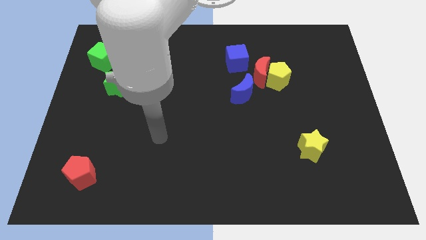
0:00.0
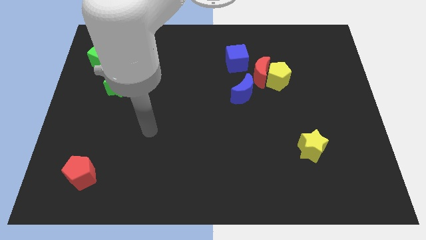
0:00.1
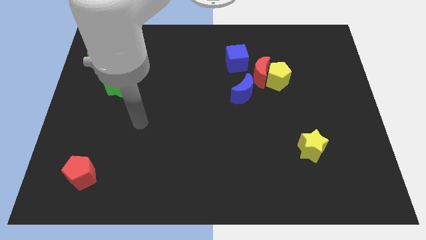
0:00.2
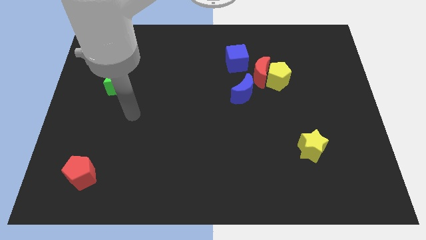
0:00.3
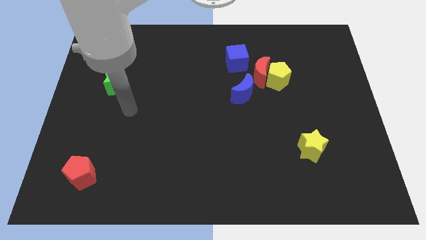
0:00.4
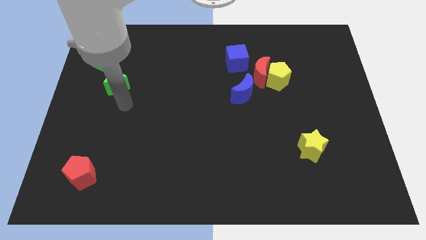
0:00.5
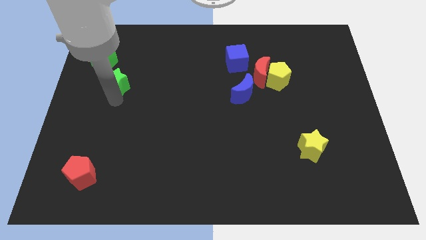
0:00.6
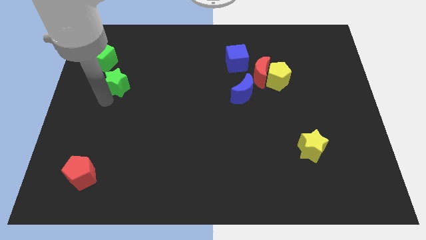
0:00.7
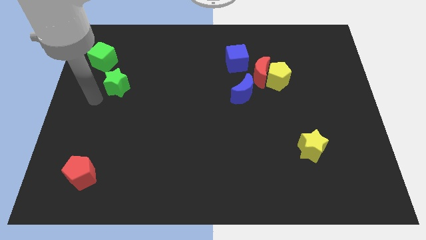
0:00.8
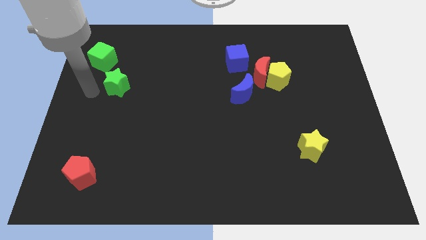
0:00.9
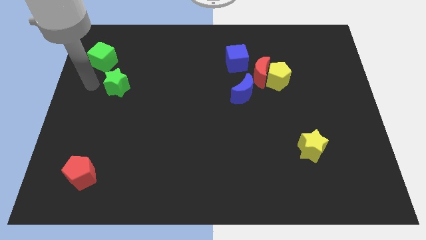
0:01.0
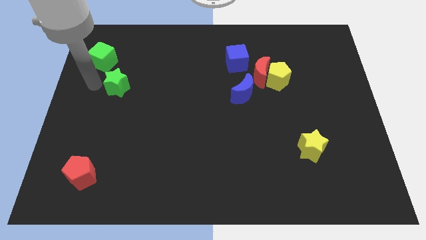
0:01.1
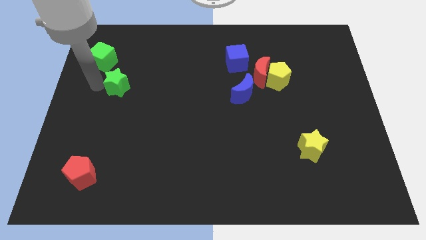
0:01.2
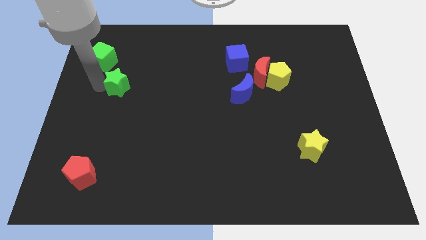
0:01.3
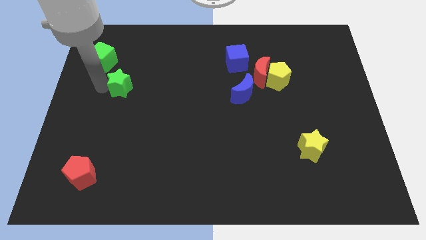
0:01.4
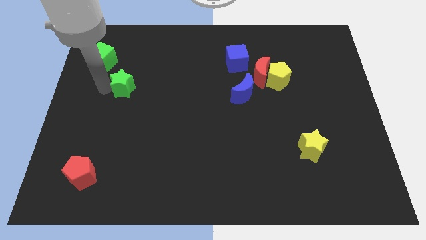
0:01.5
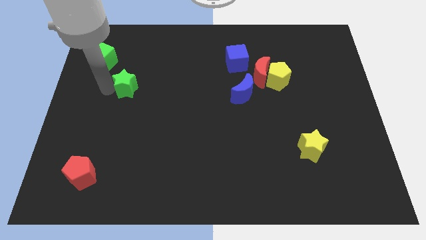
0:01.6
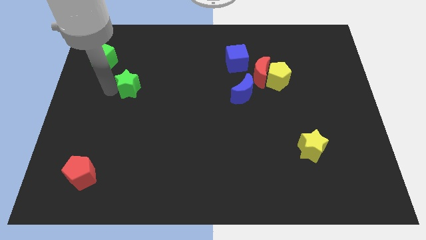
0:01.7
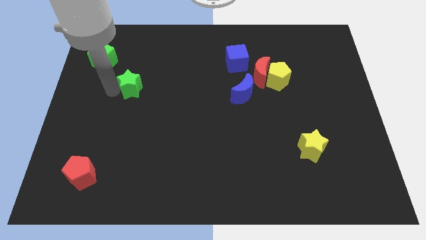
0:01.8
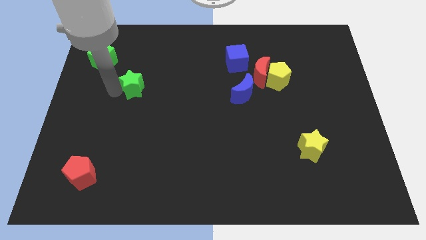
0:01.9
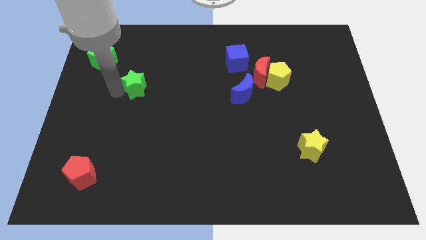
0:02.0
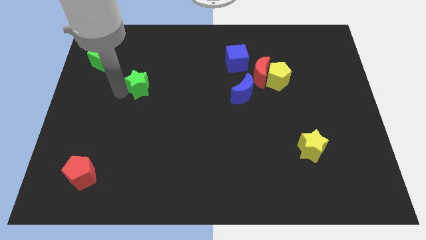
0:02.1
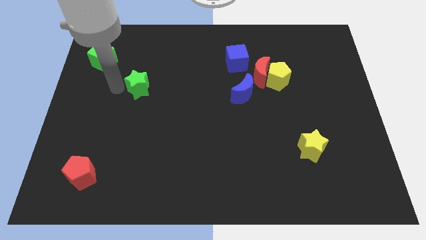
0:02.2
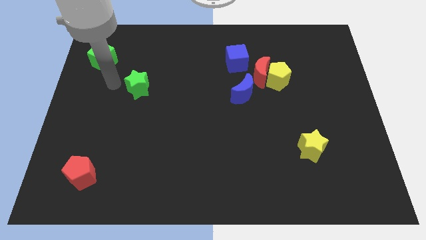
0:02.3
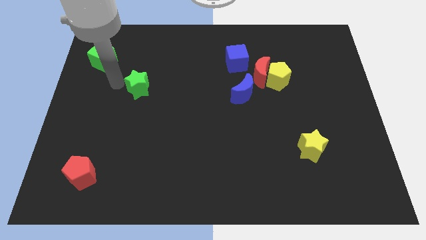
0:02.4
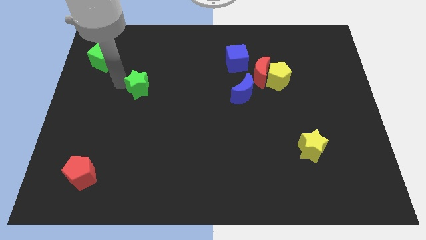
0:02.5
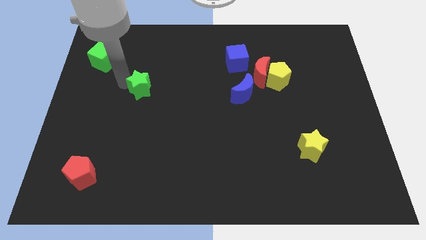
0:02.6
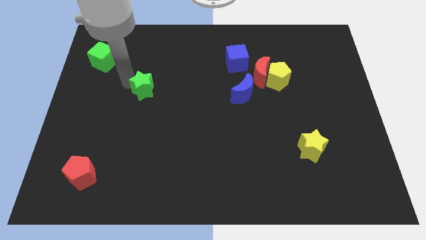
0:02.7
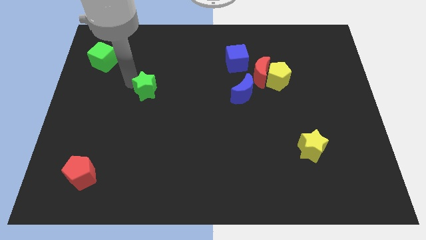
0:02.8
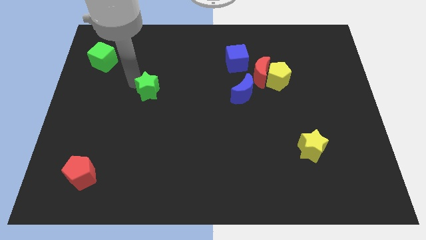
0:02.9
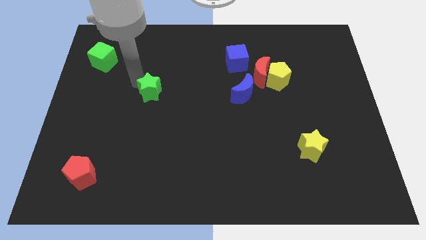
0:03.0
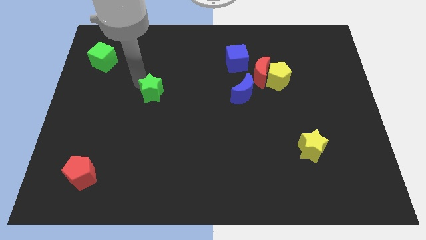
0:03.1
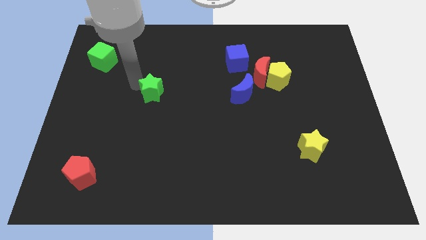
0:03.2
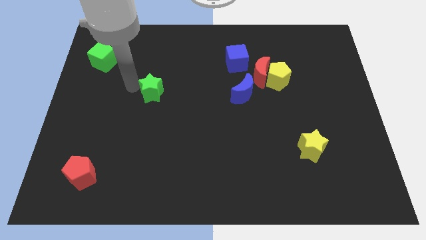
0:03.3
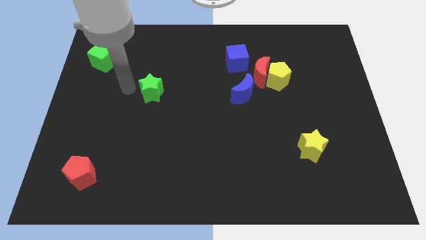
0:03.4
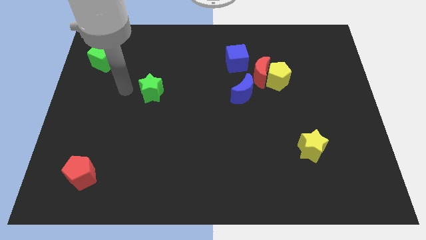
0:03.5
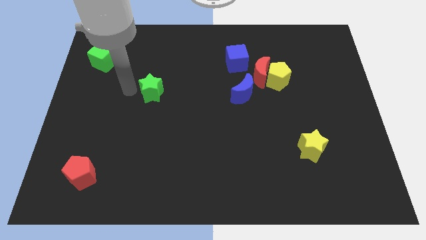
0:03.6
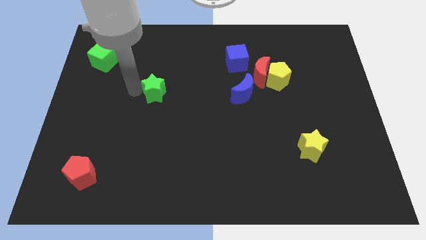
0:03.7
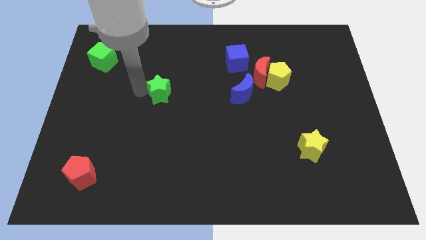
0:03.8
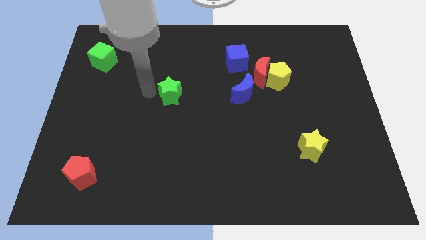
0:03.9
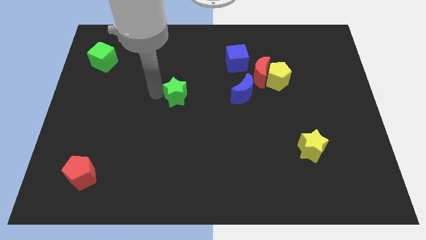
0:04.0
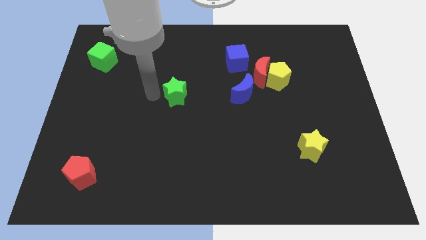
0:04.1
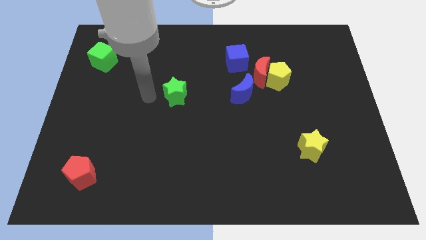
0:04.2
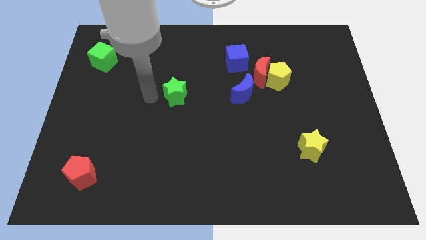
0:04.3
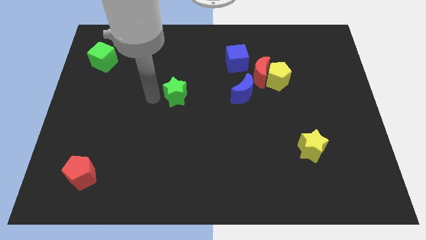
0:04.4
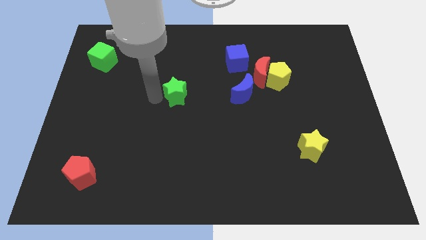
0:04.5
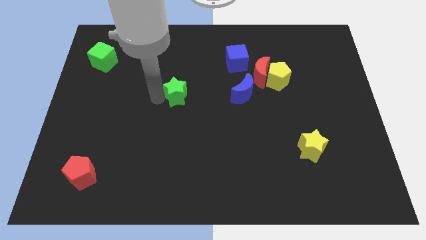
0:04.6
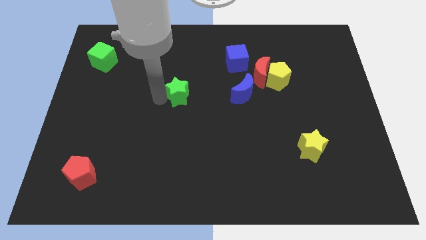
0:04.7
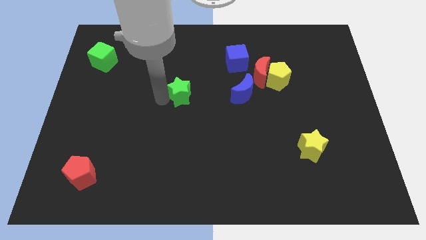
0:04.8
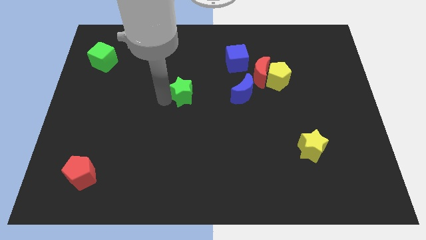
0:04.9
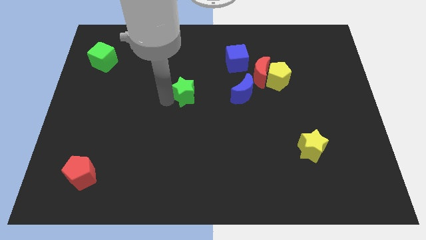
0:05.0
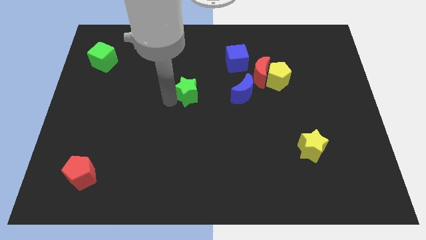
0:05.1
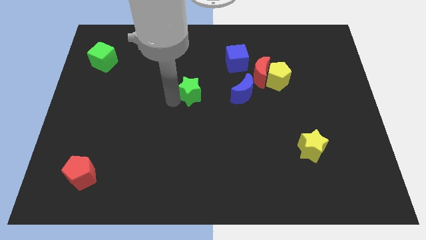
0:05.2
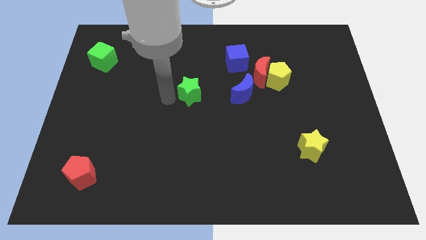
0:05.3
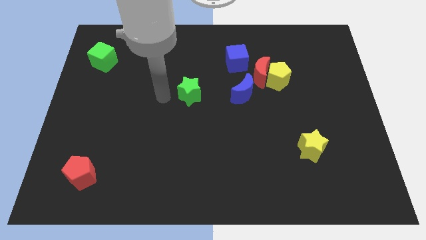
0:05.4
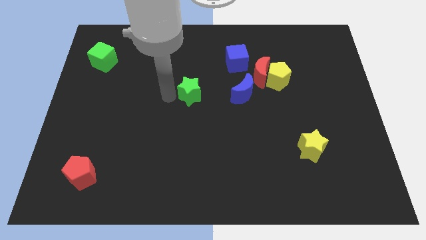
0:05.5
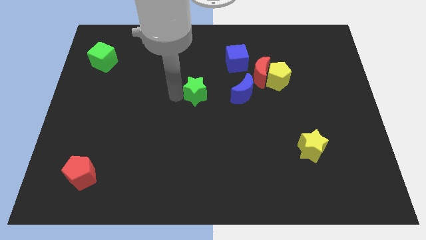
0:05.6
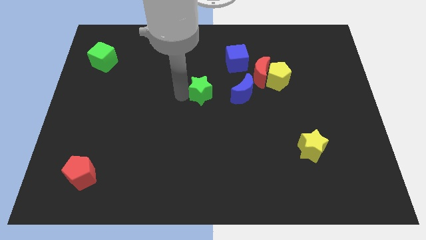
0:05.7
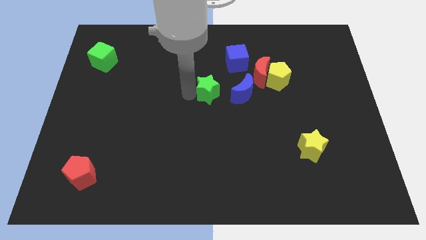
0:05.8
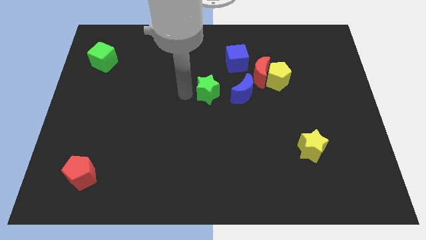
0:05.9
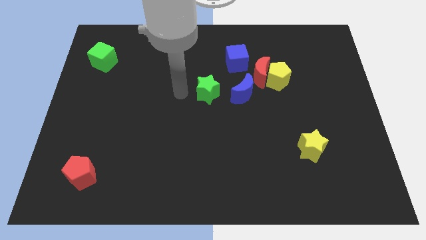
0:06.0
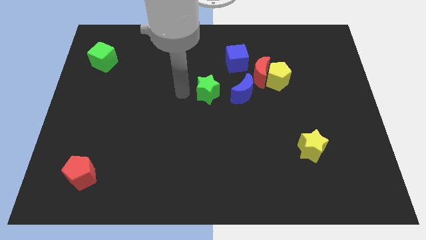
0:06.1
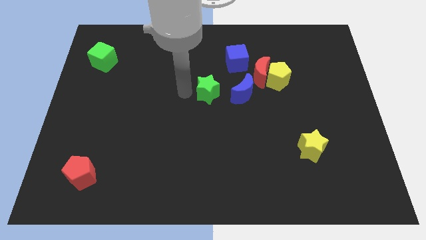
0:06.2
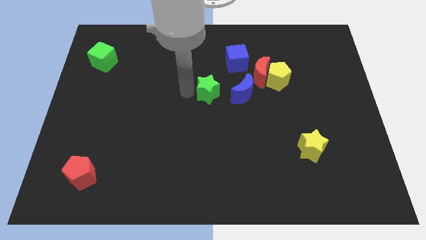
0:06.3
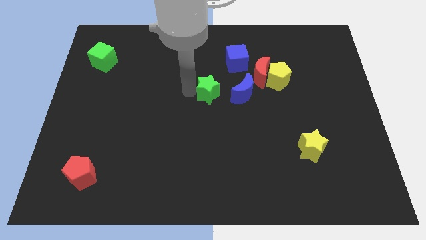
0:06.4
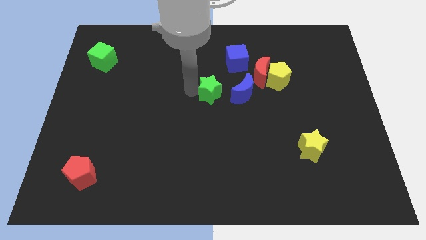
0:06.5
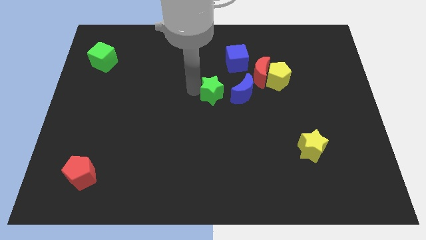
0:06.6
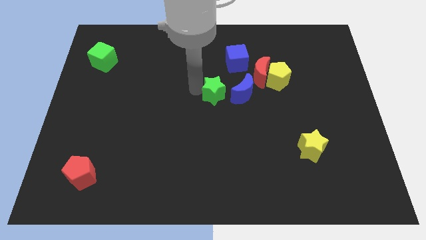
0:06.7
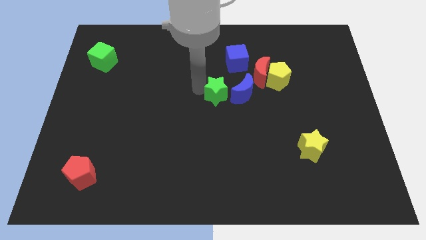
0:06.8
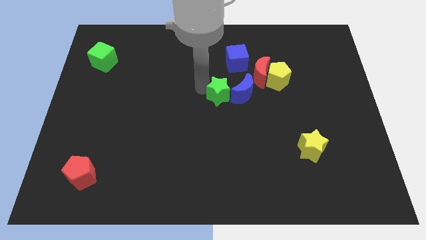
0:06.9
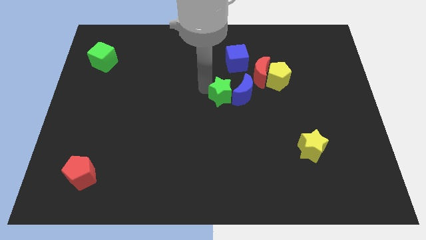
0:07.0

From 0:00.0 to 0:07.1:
move the green star towards the blue moon
